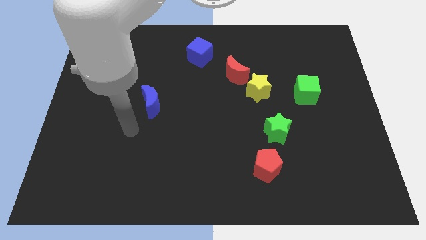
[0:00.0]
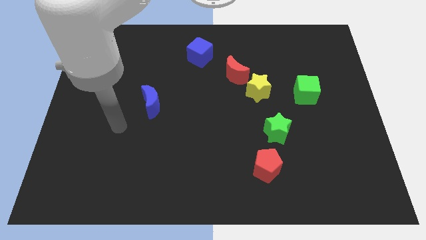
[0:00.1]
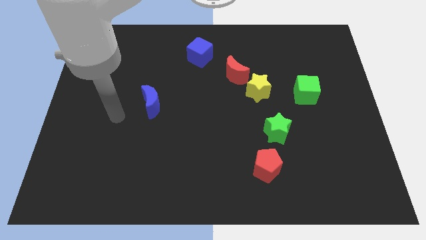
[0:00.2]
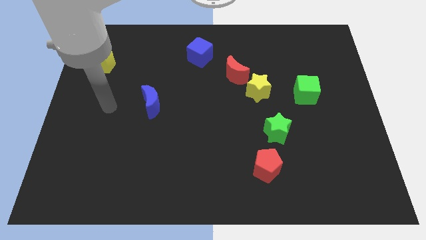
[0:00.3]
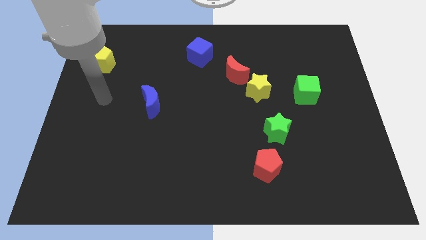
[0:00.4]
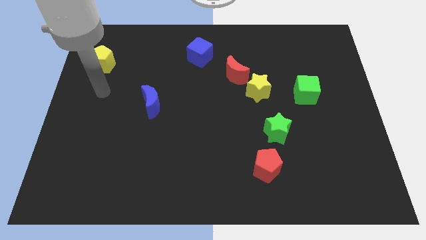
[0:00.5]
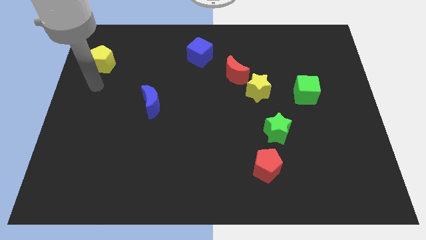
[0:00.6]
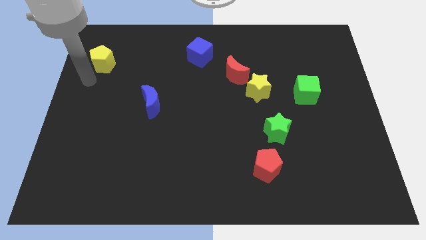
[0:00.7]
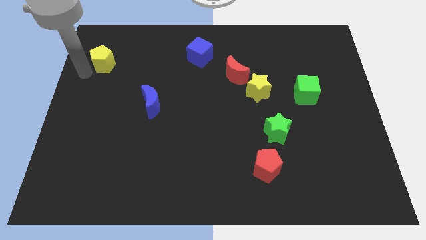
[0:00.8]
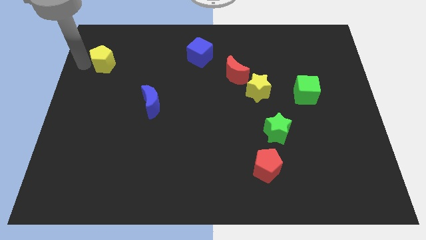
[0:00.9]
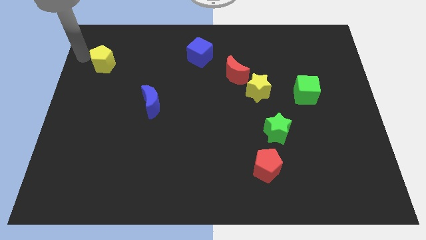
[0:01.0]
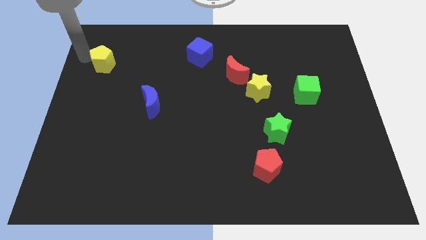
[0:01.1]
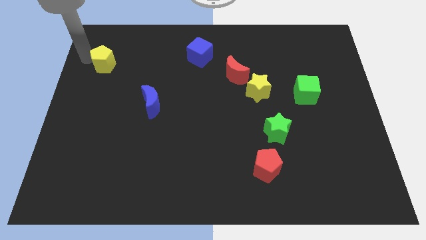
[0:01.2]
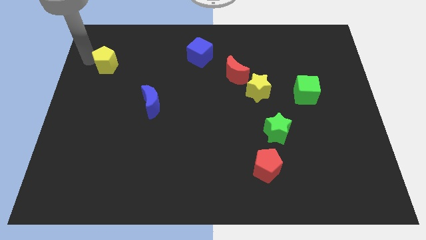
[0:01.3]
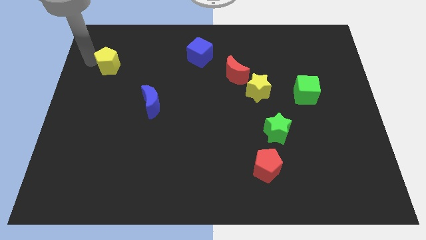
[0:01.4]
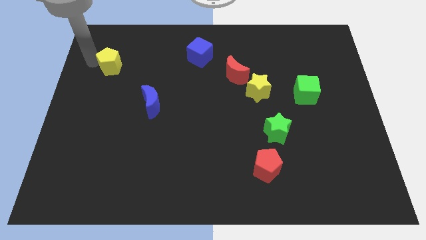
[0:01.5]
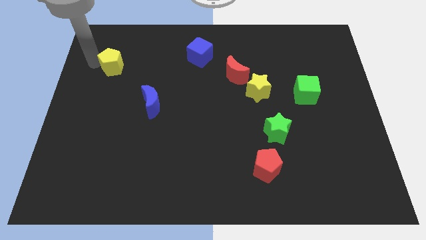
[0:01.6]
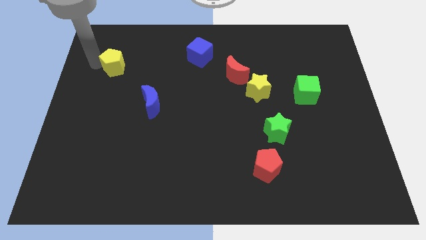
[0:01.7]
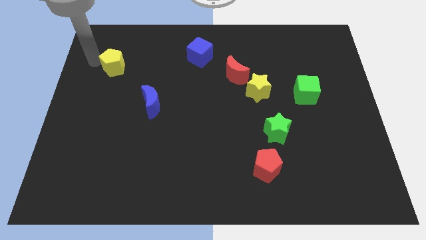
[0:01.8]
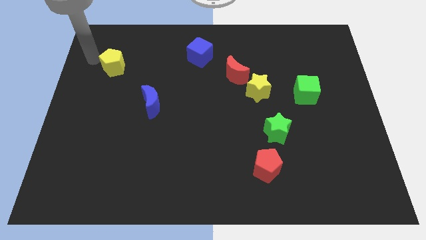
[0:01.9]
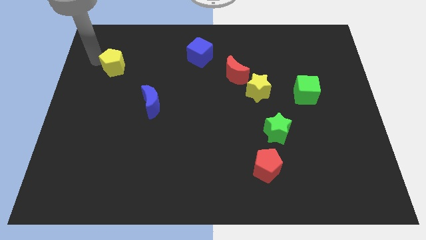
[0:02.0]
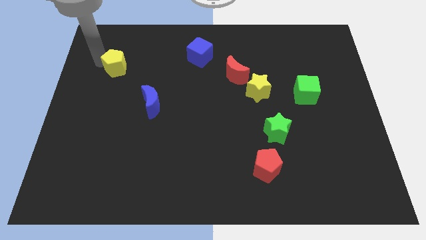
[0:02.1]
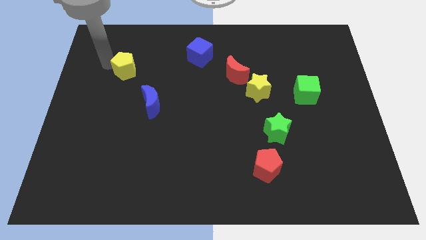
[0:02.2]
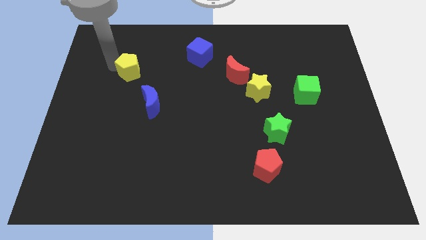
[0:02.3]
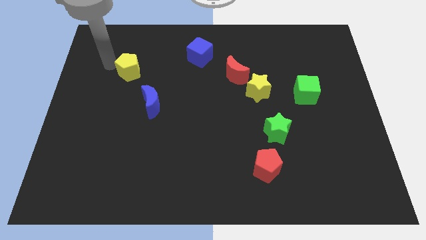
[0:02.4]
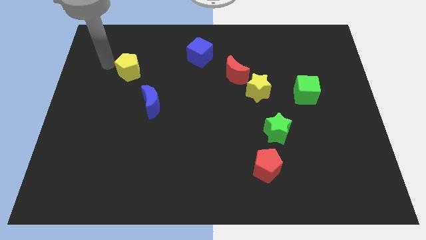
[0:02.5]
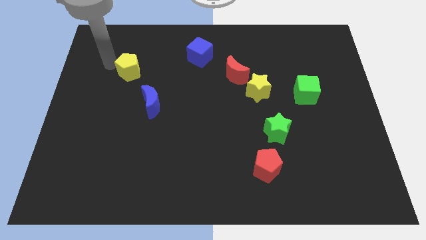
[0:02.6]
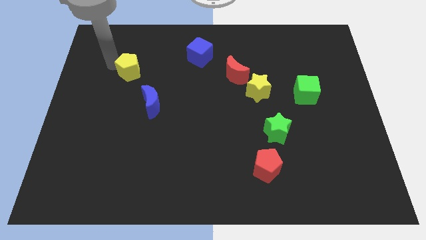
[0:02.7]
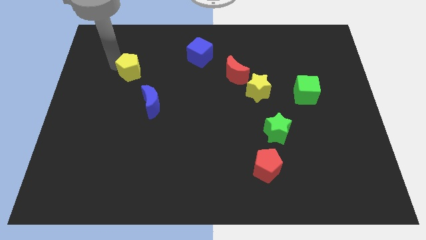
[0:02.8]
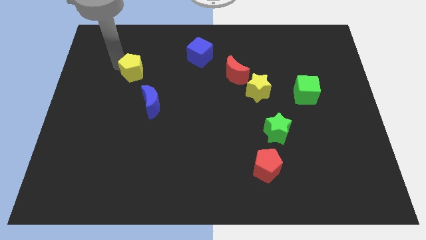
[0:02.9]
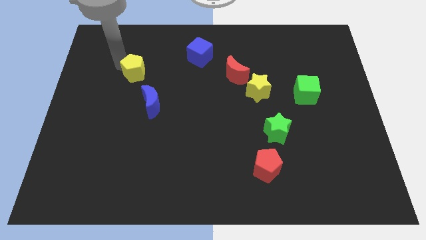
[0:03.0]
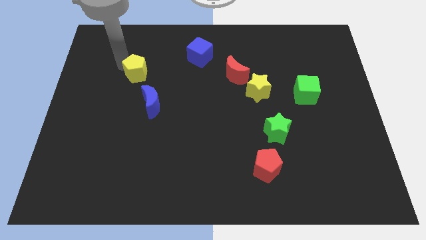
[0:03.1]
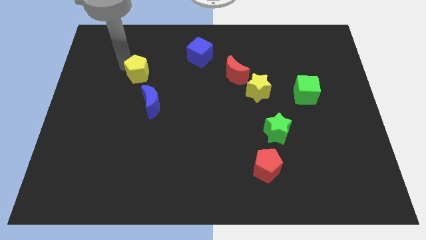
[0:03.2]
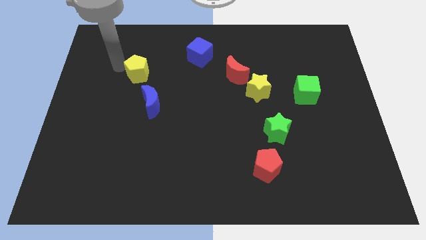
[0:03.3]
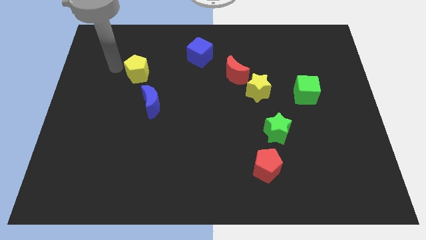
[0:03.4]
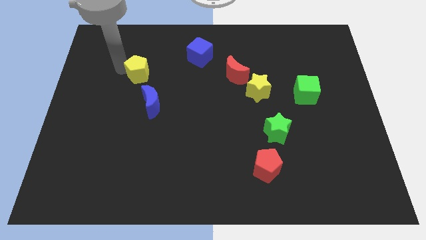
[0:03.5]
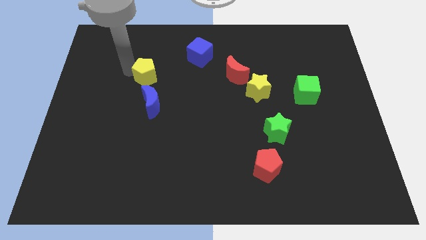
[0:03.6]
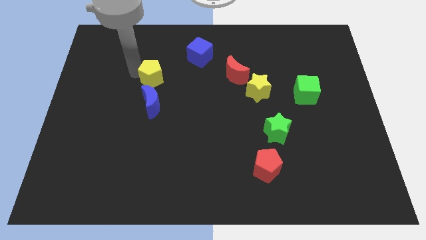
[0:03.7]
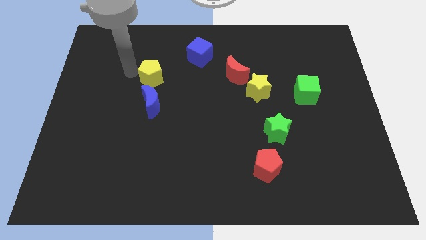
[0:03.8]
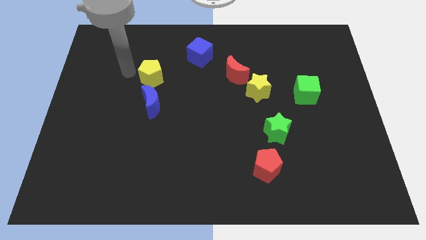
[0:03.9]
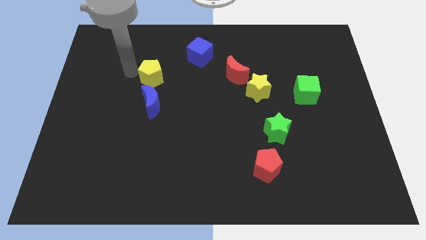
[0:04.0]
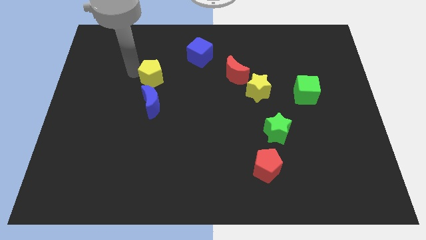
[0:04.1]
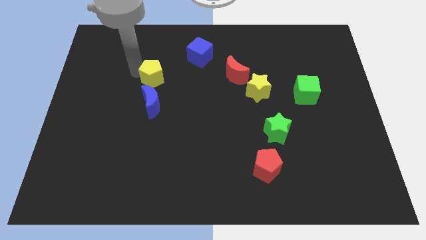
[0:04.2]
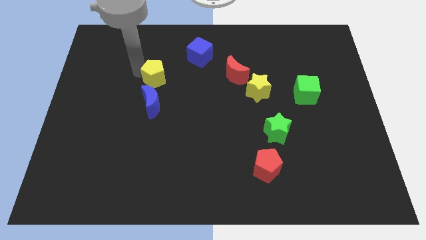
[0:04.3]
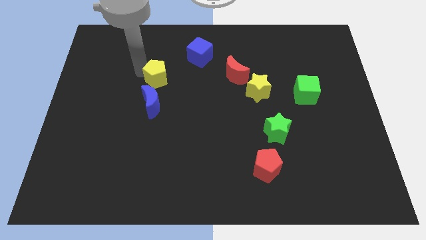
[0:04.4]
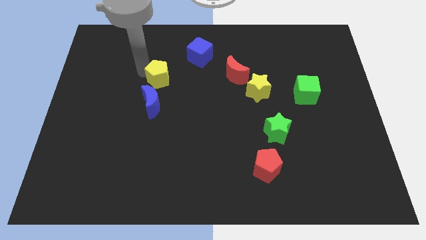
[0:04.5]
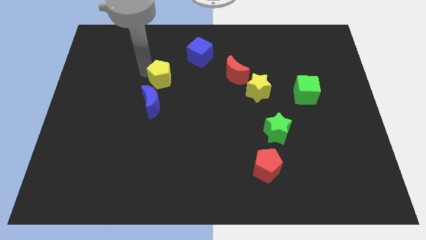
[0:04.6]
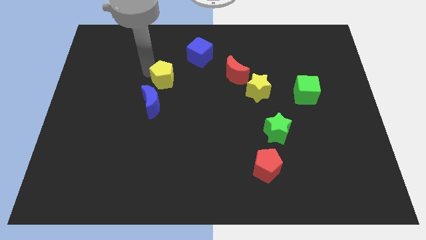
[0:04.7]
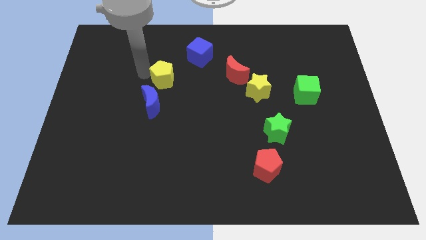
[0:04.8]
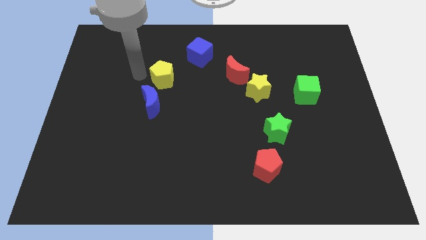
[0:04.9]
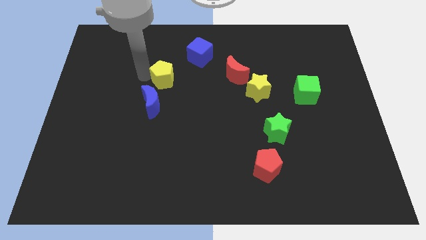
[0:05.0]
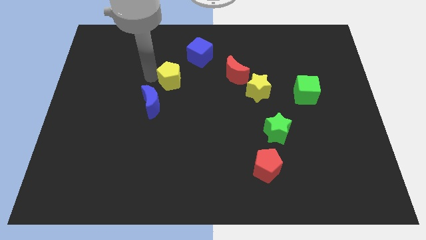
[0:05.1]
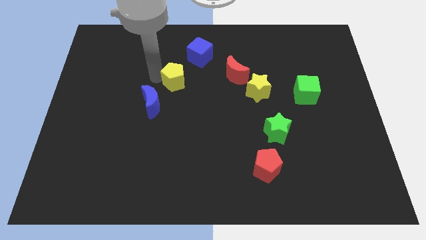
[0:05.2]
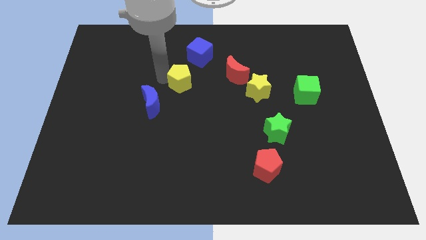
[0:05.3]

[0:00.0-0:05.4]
push the yellow pentagon to the bottom of the blue cube

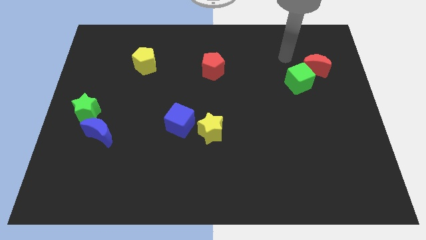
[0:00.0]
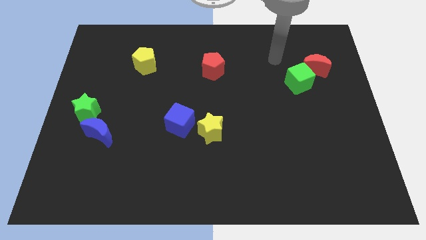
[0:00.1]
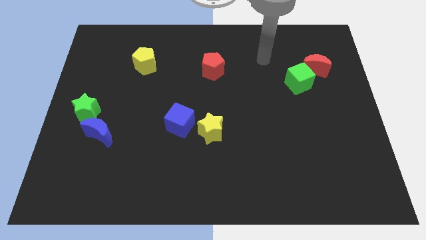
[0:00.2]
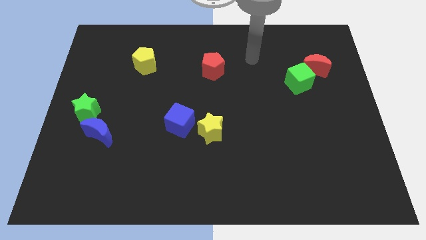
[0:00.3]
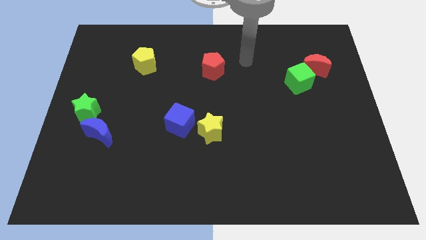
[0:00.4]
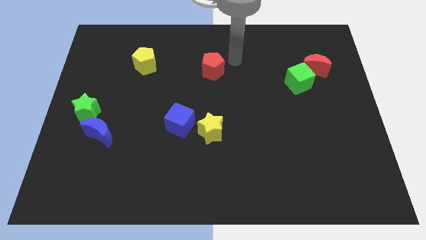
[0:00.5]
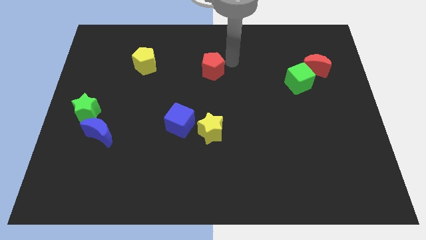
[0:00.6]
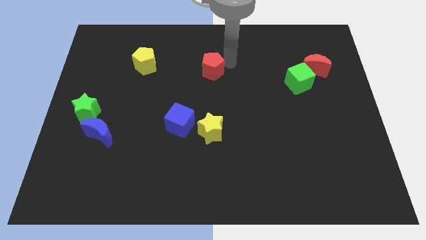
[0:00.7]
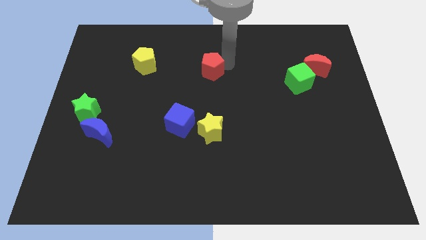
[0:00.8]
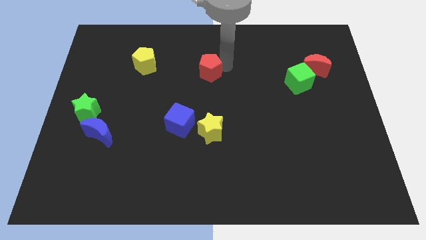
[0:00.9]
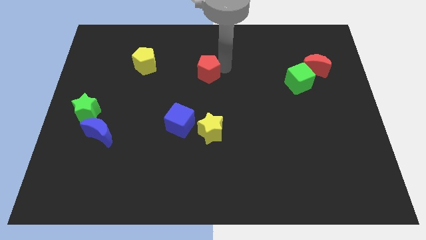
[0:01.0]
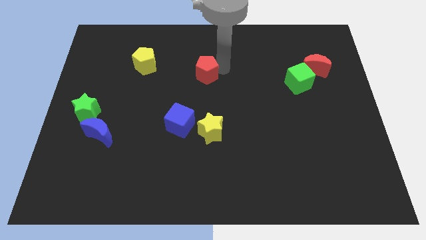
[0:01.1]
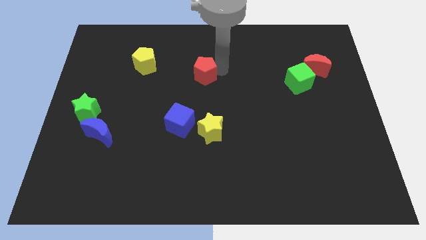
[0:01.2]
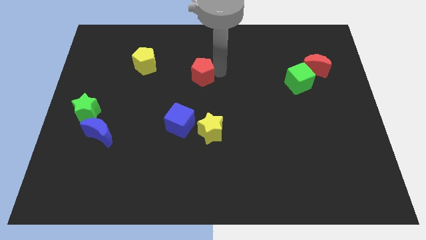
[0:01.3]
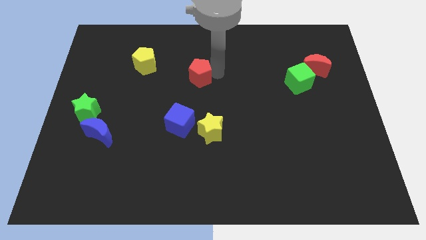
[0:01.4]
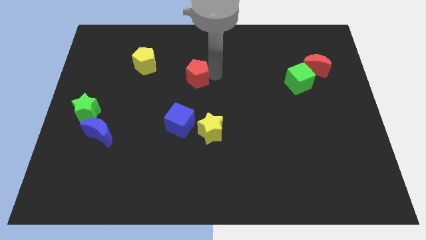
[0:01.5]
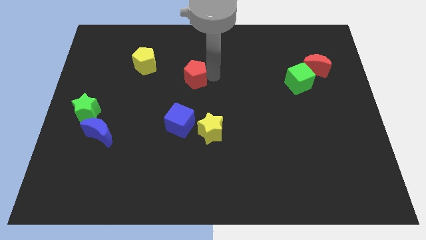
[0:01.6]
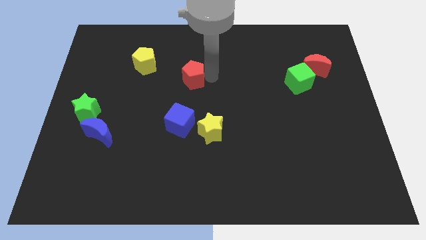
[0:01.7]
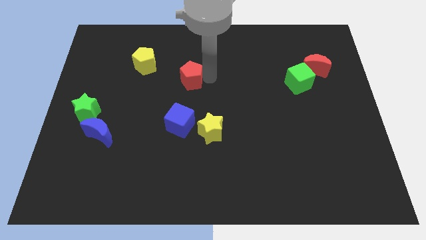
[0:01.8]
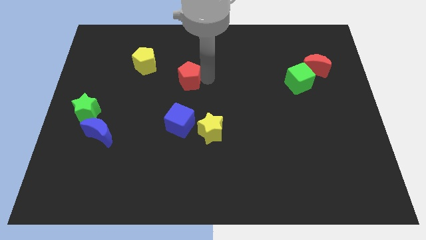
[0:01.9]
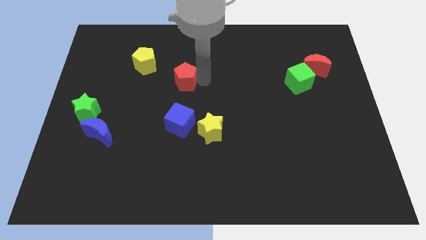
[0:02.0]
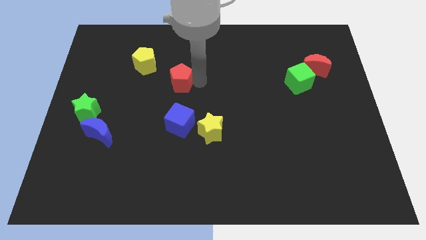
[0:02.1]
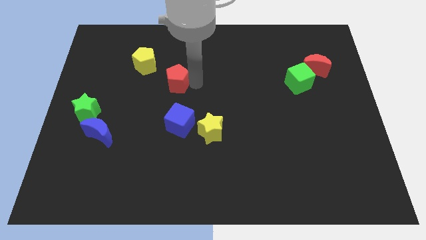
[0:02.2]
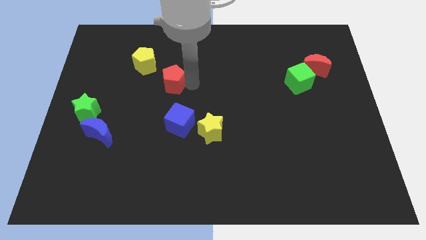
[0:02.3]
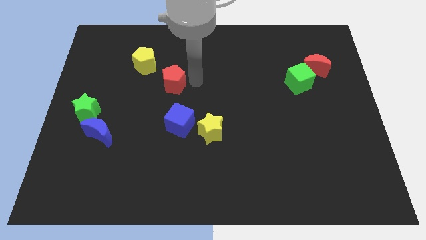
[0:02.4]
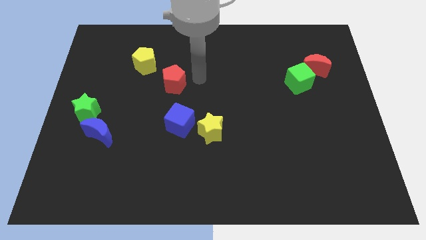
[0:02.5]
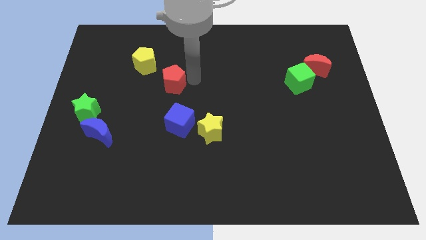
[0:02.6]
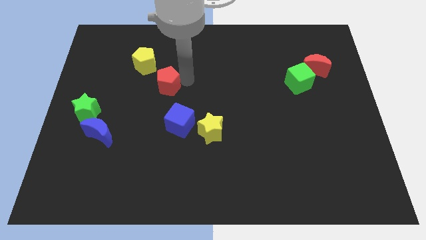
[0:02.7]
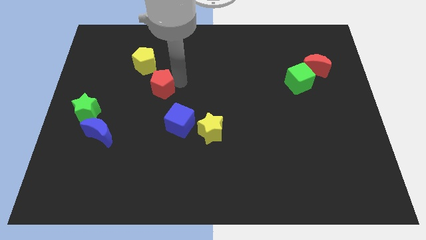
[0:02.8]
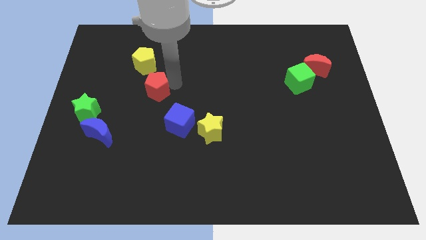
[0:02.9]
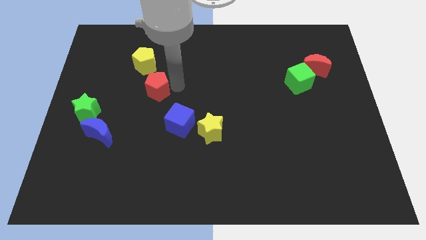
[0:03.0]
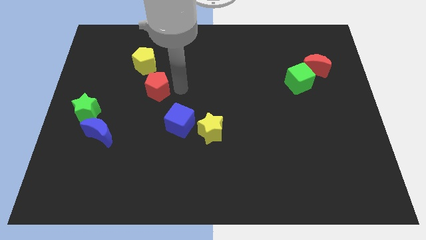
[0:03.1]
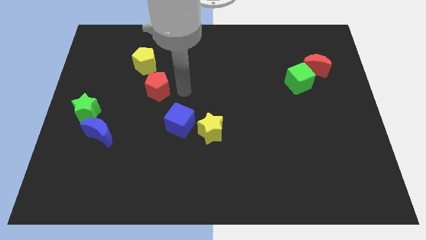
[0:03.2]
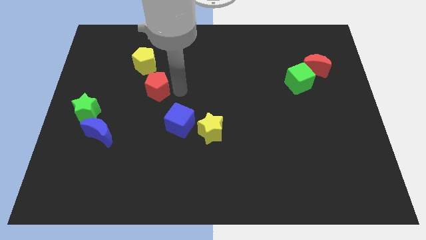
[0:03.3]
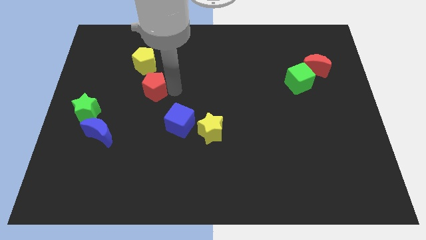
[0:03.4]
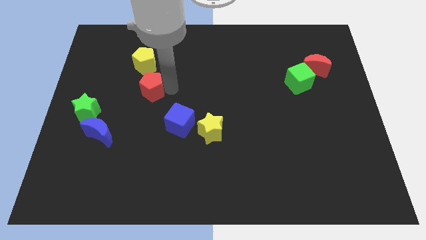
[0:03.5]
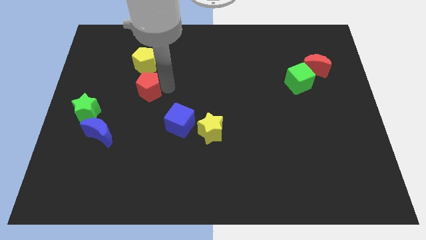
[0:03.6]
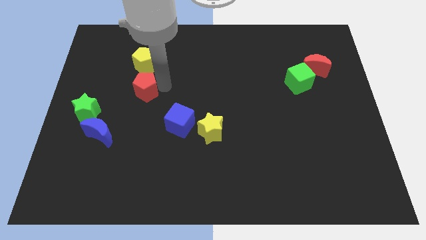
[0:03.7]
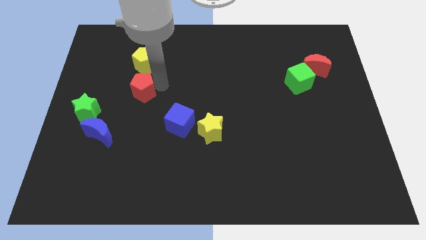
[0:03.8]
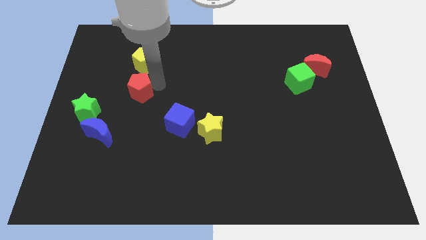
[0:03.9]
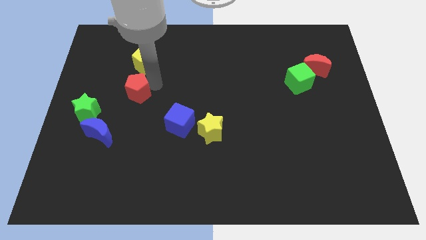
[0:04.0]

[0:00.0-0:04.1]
put the red pentagon to the top right side of the green star
